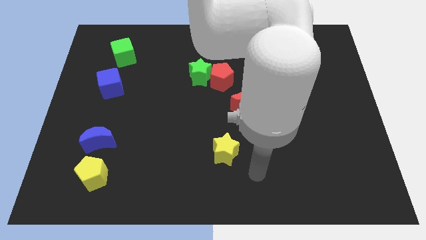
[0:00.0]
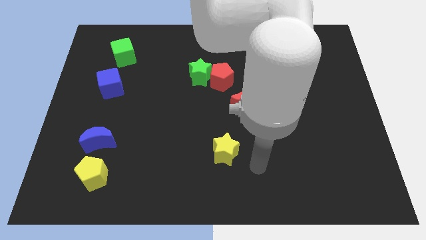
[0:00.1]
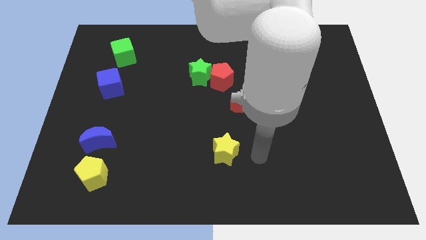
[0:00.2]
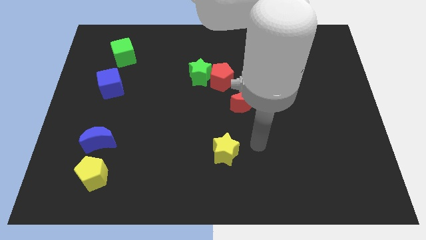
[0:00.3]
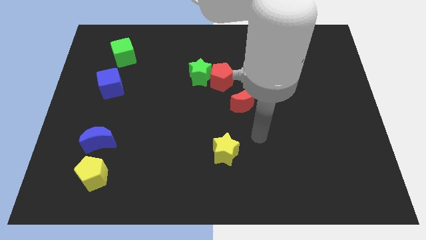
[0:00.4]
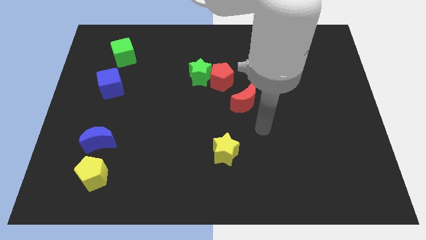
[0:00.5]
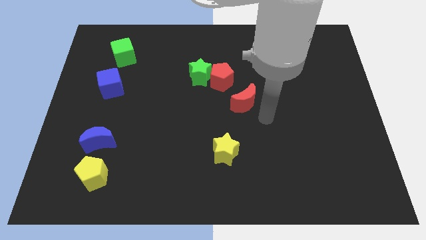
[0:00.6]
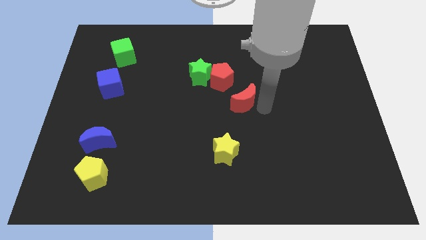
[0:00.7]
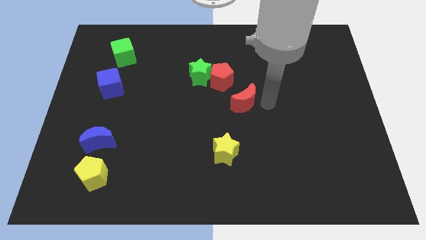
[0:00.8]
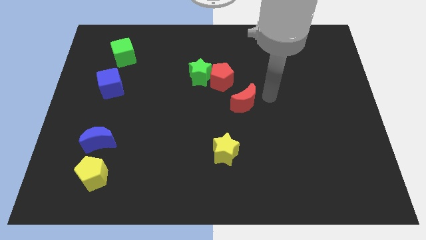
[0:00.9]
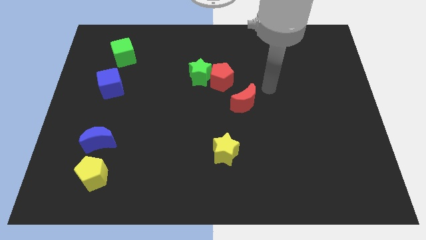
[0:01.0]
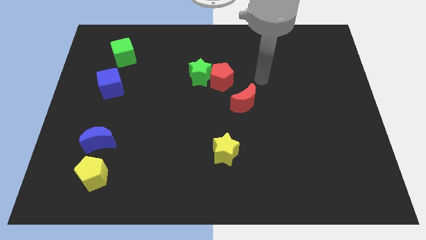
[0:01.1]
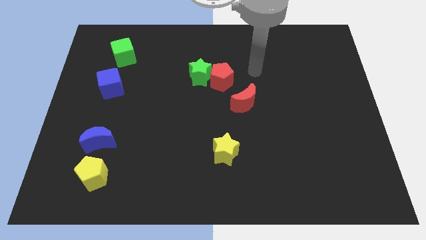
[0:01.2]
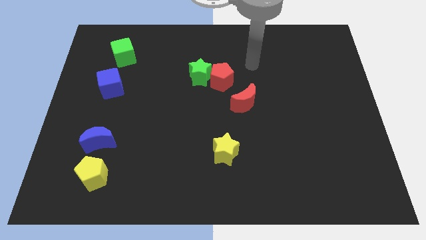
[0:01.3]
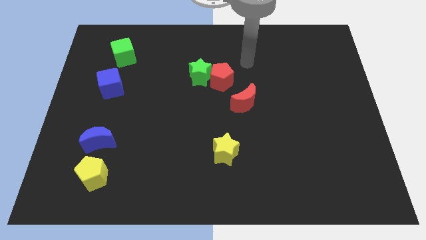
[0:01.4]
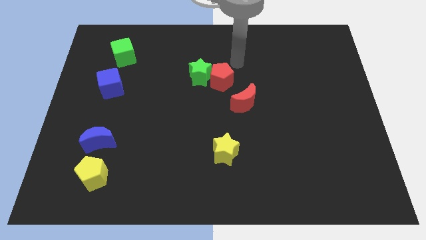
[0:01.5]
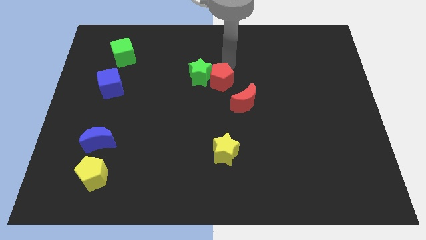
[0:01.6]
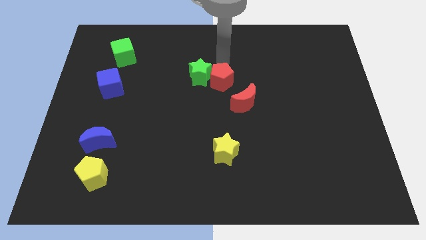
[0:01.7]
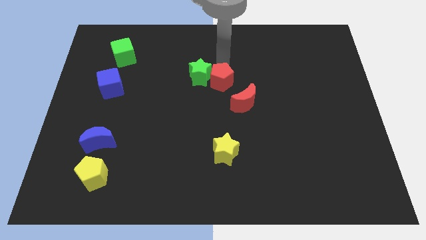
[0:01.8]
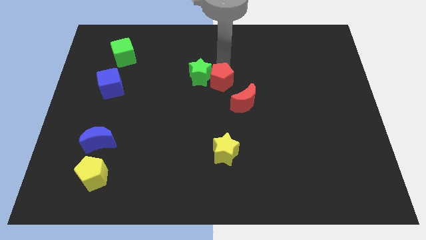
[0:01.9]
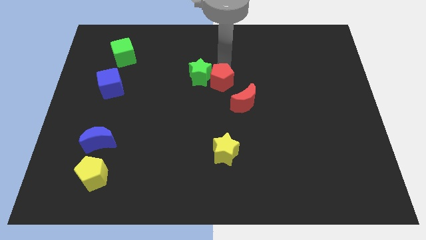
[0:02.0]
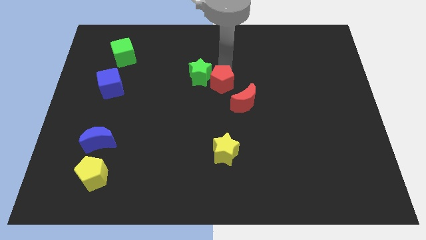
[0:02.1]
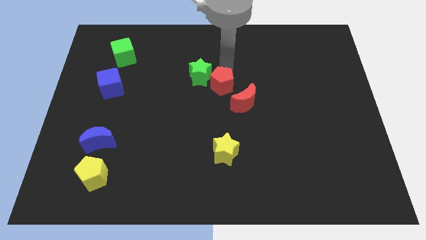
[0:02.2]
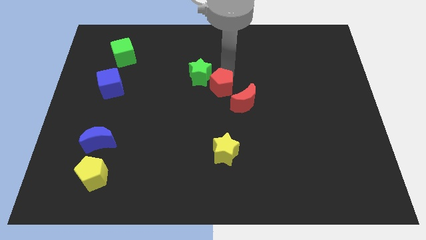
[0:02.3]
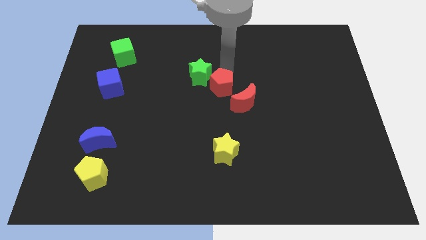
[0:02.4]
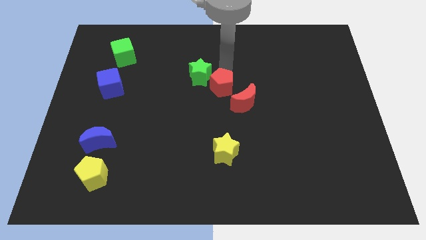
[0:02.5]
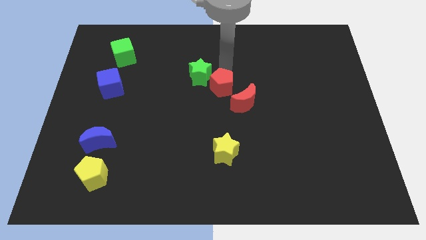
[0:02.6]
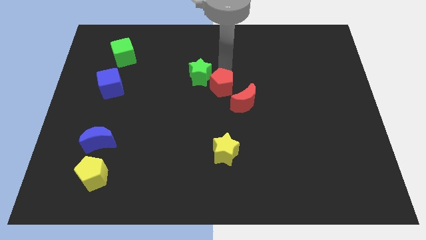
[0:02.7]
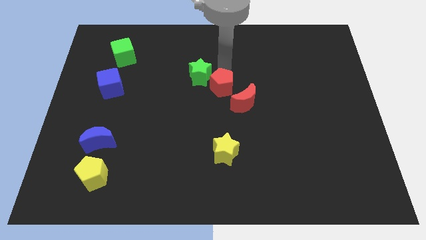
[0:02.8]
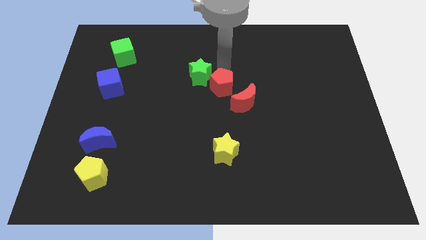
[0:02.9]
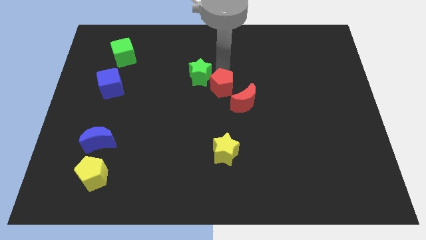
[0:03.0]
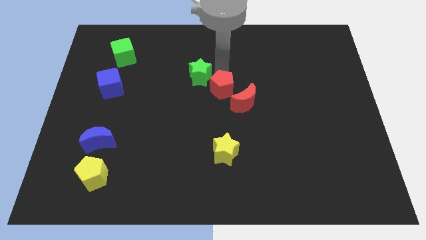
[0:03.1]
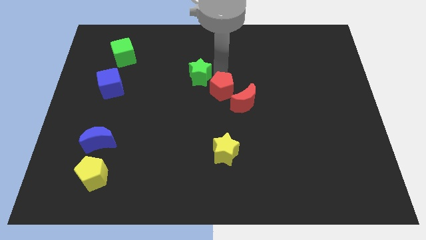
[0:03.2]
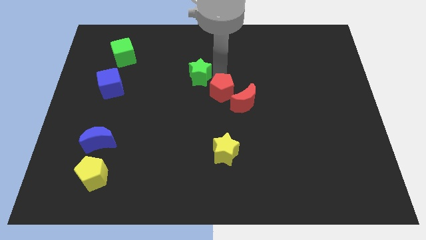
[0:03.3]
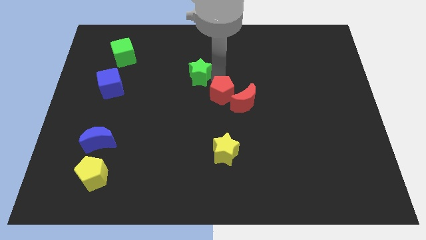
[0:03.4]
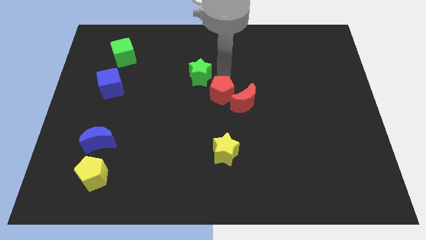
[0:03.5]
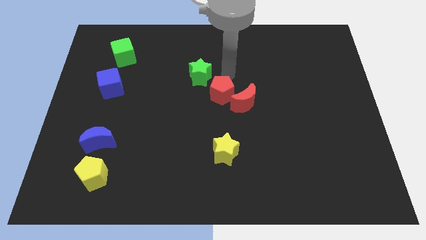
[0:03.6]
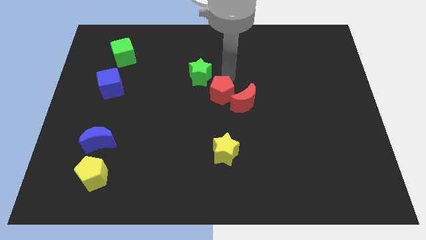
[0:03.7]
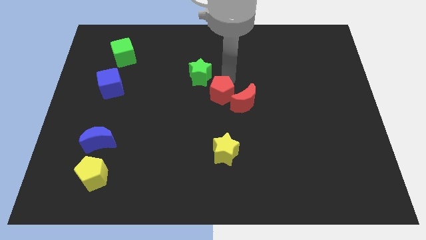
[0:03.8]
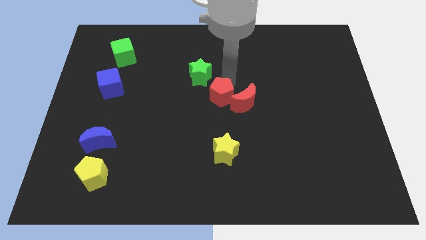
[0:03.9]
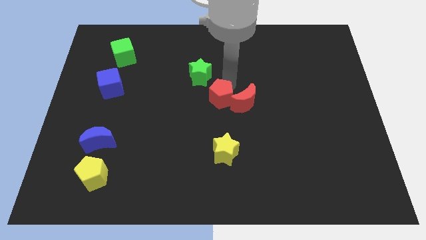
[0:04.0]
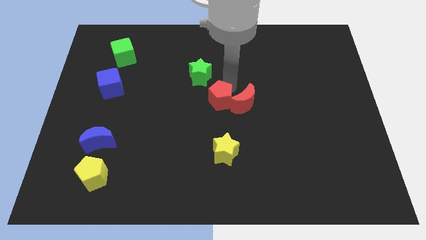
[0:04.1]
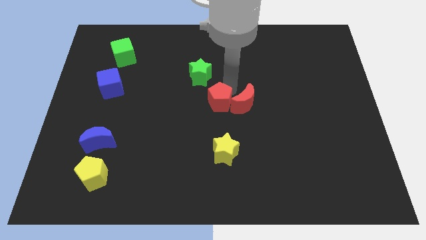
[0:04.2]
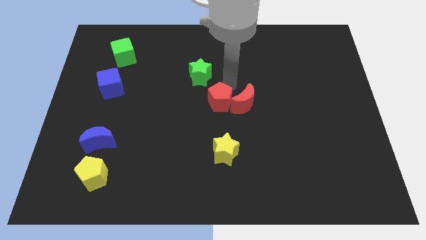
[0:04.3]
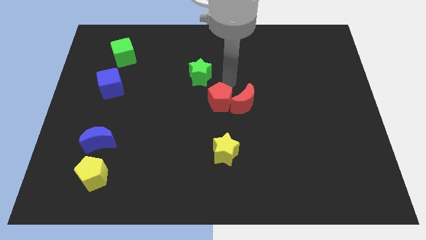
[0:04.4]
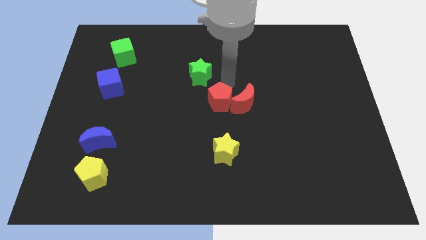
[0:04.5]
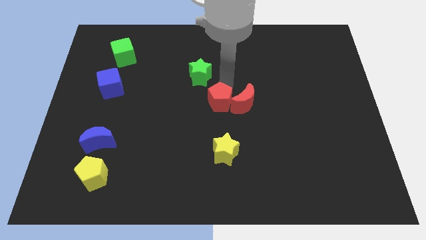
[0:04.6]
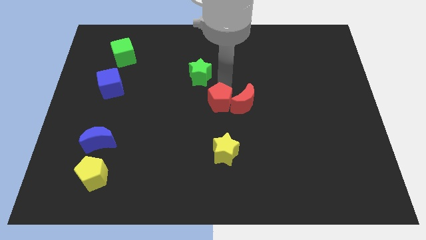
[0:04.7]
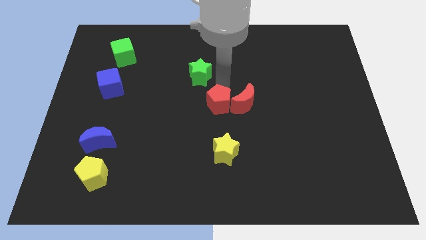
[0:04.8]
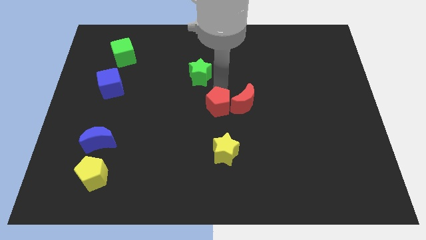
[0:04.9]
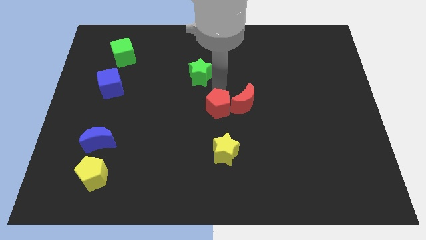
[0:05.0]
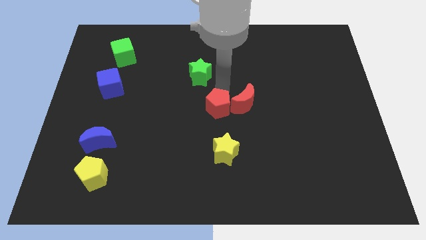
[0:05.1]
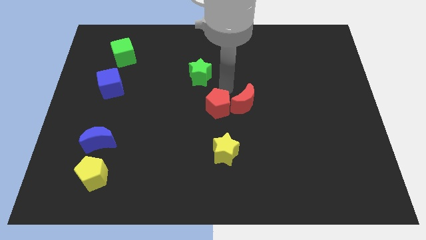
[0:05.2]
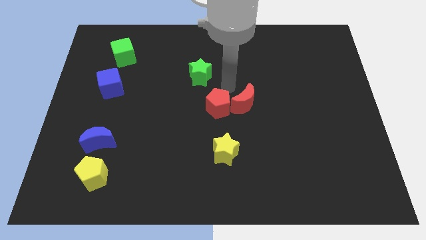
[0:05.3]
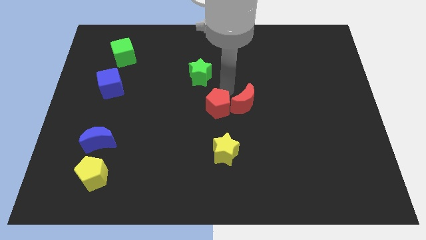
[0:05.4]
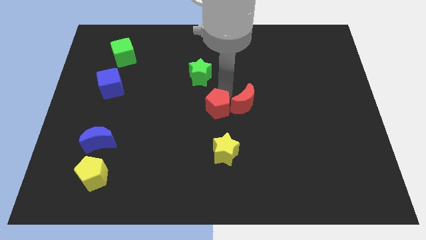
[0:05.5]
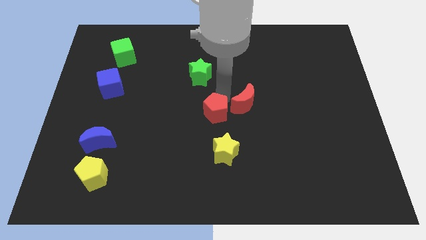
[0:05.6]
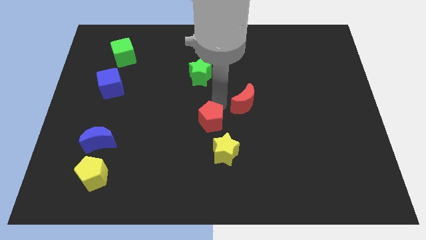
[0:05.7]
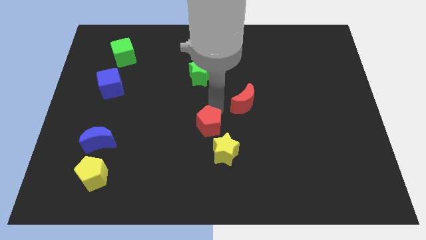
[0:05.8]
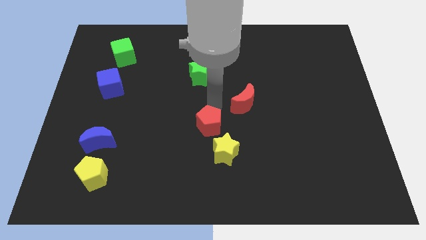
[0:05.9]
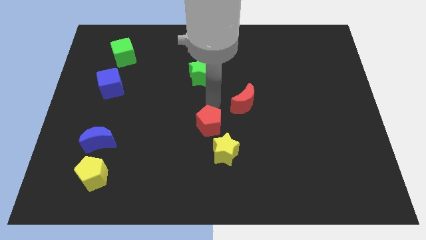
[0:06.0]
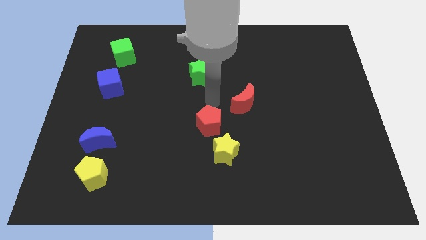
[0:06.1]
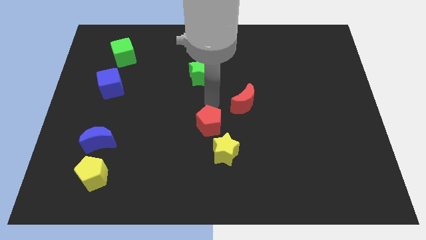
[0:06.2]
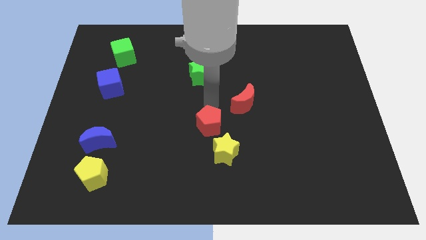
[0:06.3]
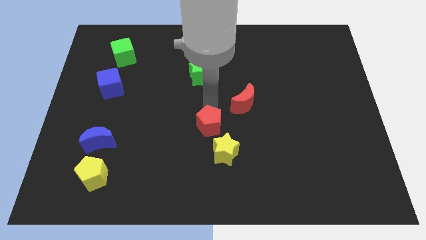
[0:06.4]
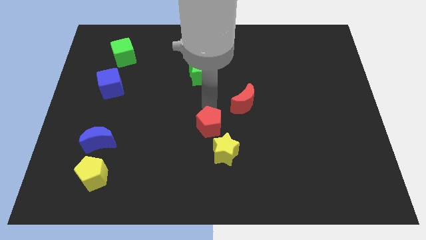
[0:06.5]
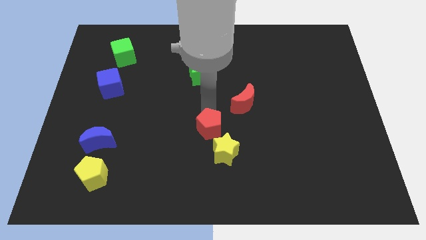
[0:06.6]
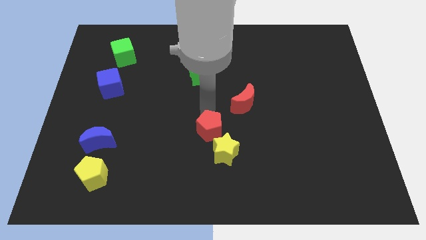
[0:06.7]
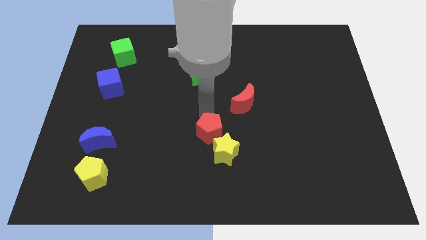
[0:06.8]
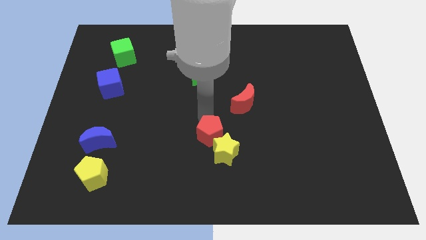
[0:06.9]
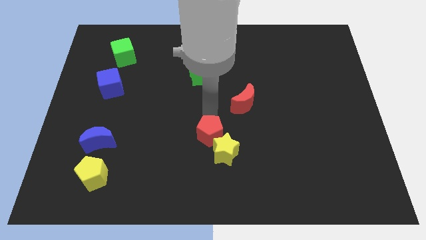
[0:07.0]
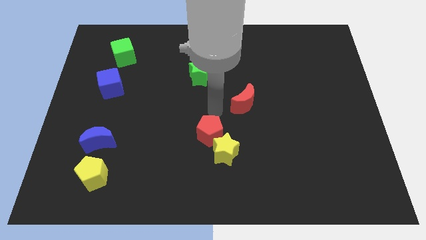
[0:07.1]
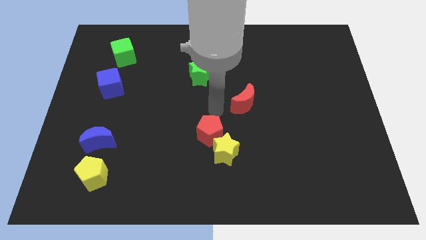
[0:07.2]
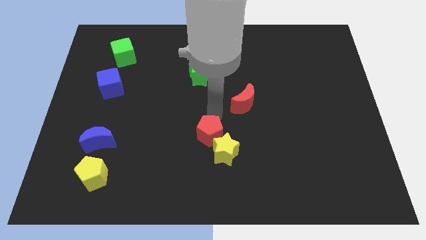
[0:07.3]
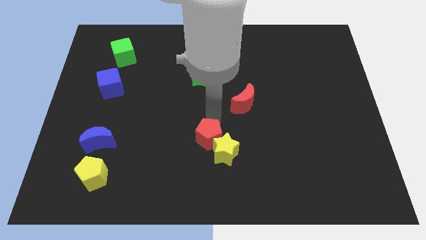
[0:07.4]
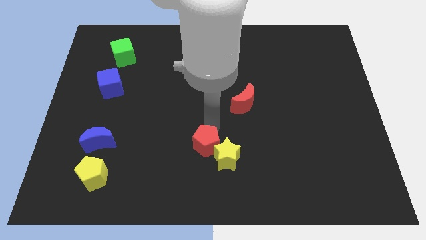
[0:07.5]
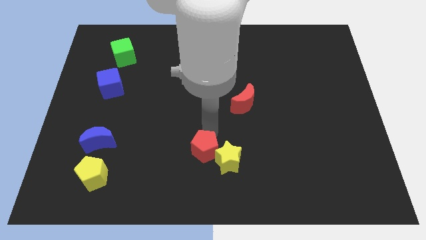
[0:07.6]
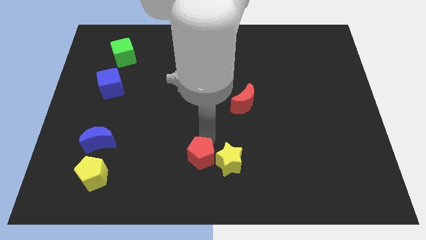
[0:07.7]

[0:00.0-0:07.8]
slide the red pentagon to the bottom

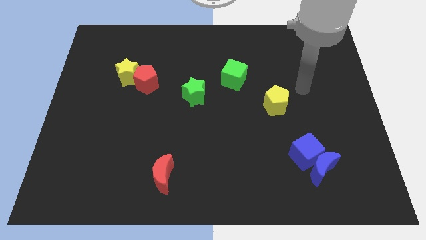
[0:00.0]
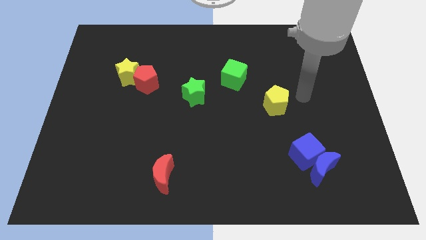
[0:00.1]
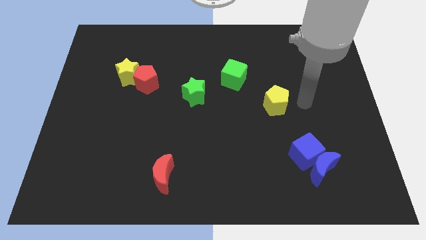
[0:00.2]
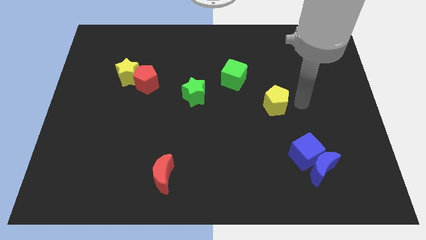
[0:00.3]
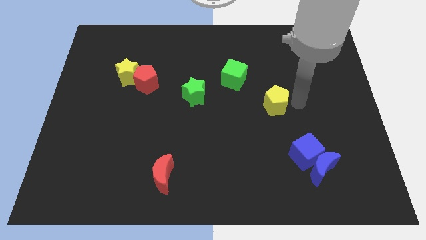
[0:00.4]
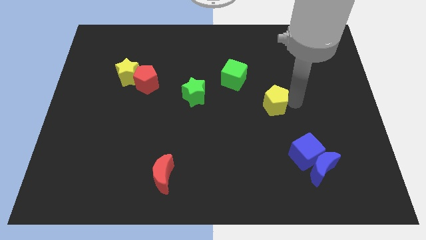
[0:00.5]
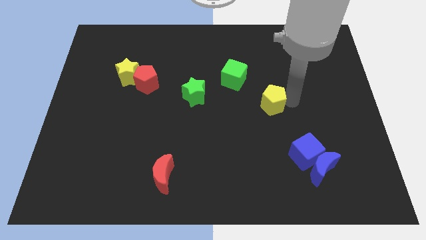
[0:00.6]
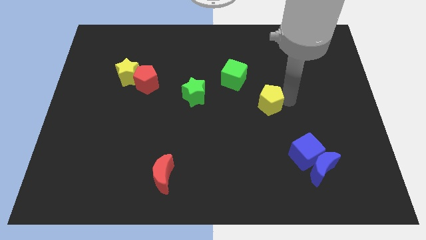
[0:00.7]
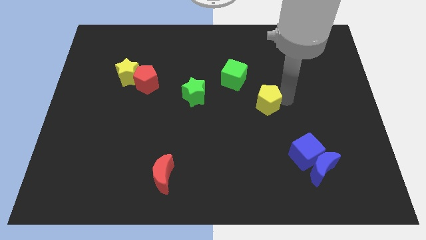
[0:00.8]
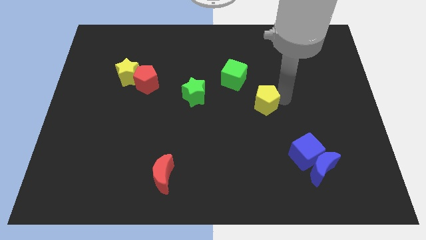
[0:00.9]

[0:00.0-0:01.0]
push the yellow pentagon to the center
